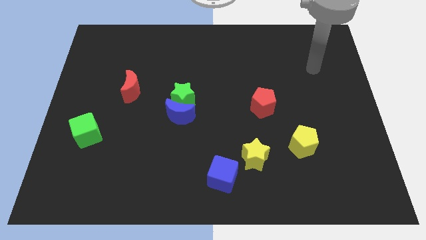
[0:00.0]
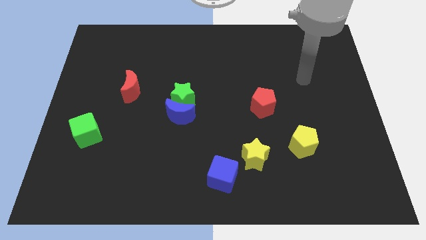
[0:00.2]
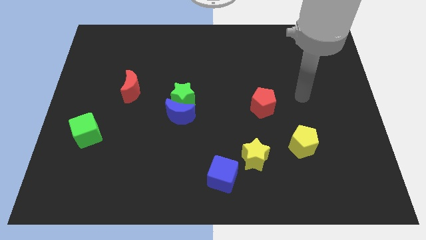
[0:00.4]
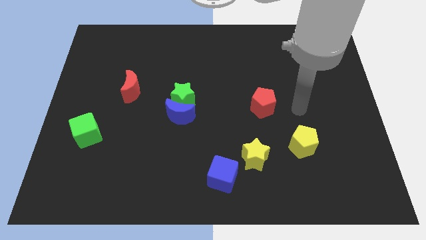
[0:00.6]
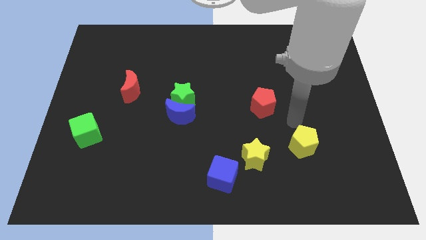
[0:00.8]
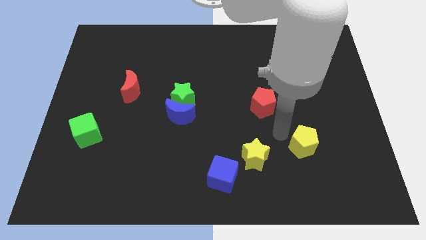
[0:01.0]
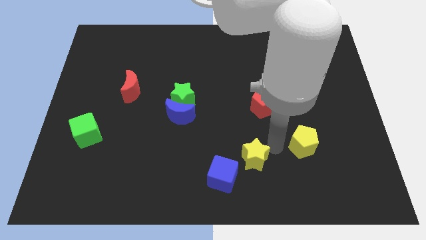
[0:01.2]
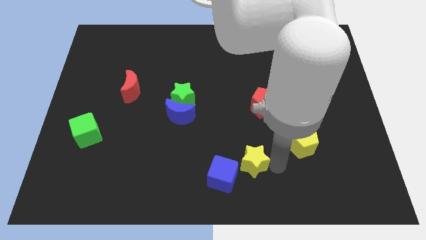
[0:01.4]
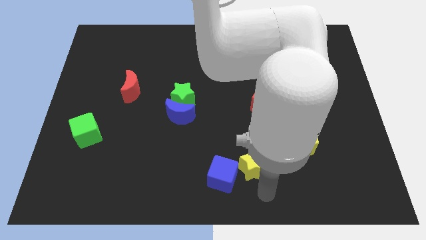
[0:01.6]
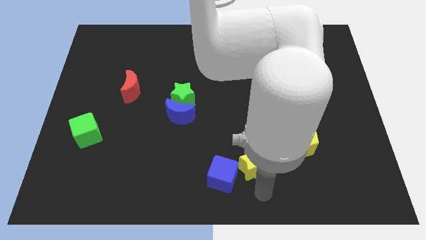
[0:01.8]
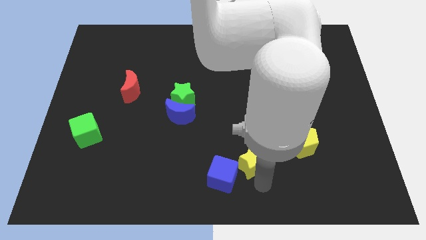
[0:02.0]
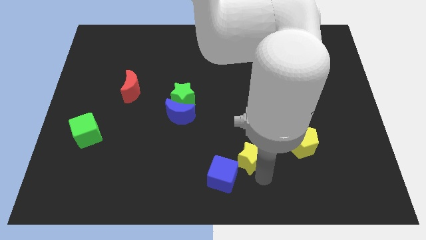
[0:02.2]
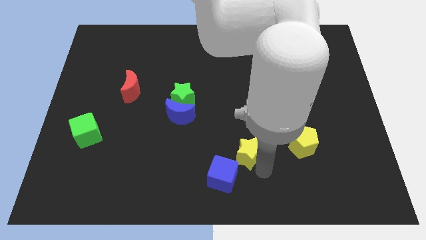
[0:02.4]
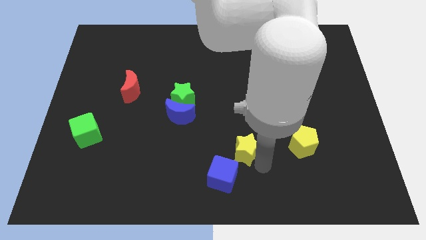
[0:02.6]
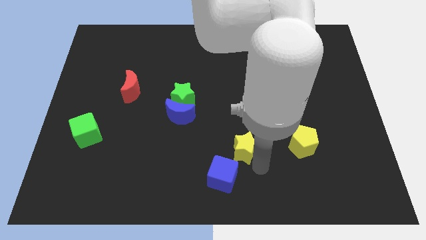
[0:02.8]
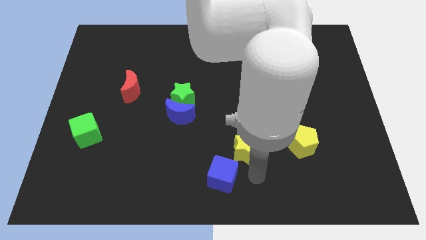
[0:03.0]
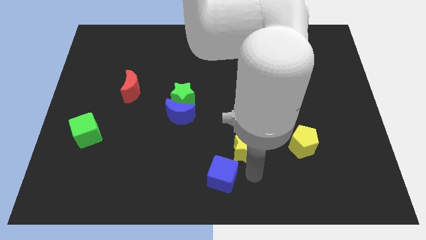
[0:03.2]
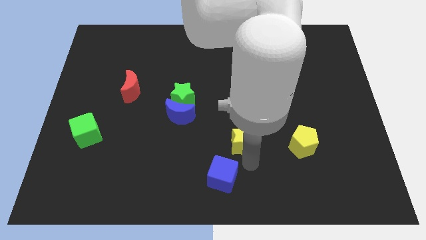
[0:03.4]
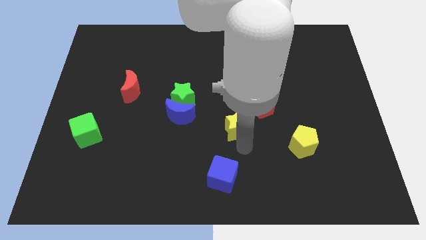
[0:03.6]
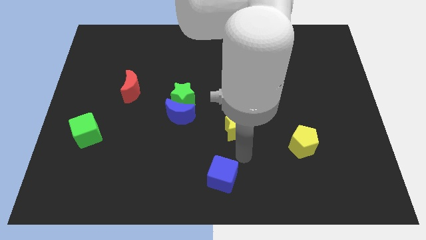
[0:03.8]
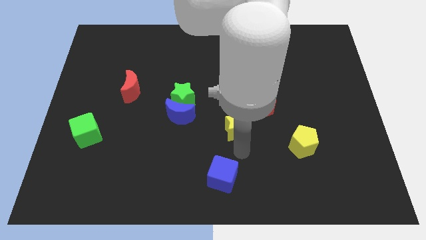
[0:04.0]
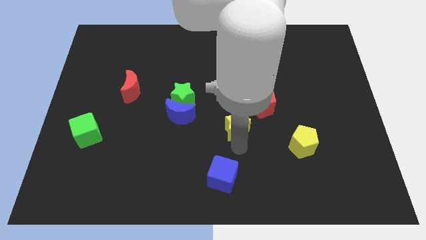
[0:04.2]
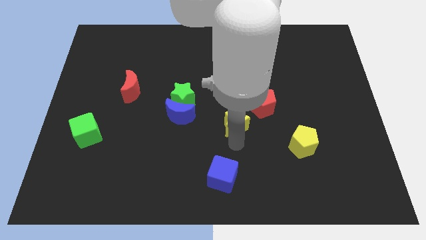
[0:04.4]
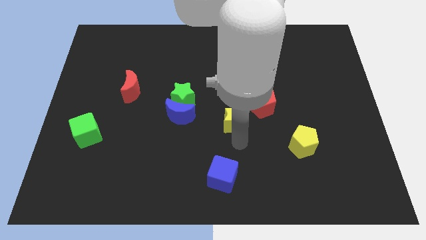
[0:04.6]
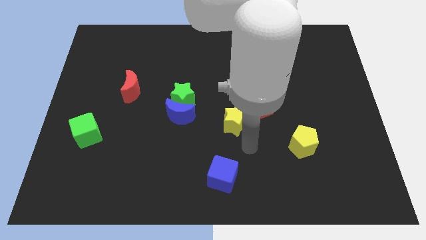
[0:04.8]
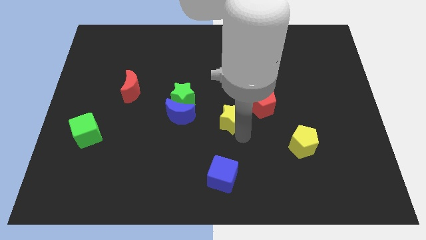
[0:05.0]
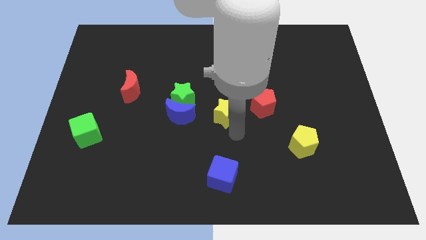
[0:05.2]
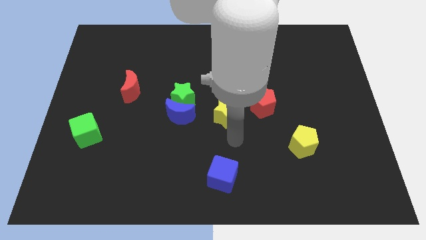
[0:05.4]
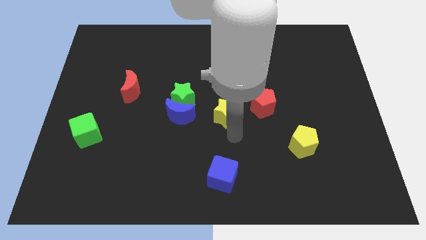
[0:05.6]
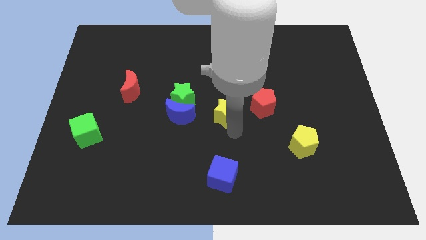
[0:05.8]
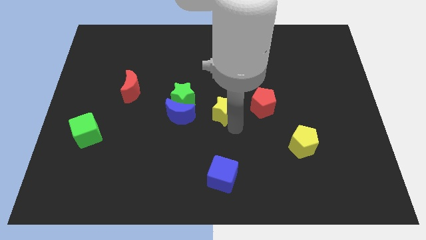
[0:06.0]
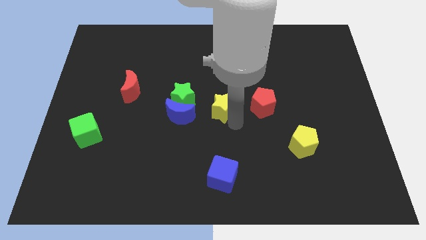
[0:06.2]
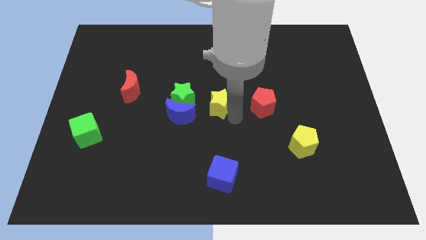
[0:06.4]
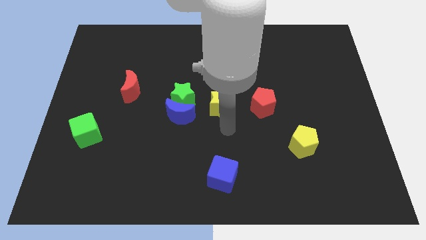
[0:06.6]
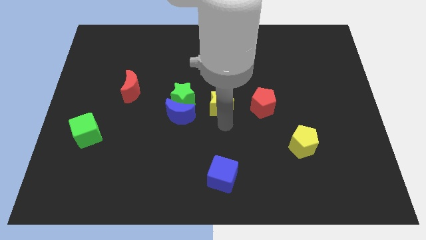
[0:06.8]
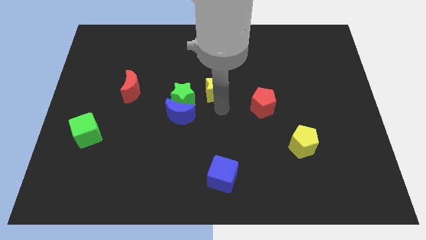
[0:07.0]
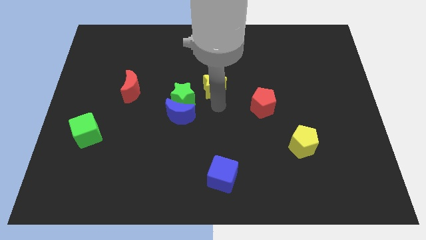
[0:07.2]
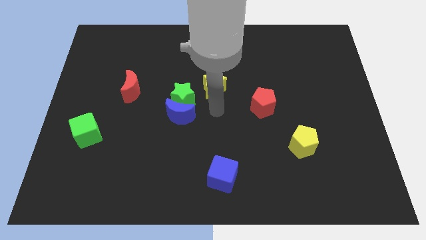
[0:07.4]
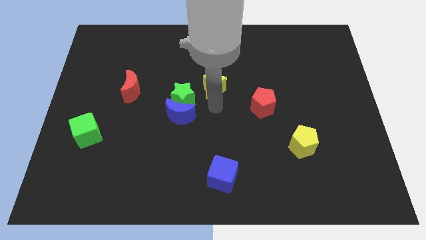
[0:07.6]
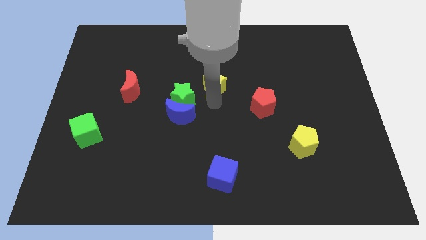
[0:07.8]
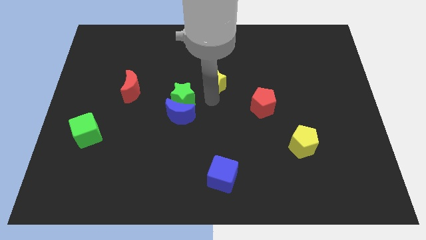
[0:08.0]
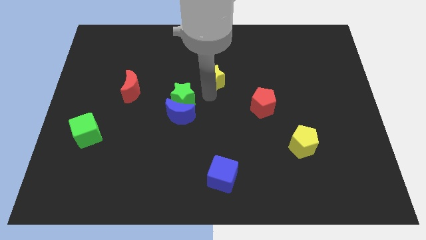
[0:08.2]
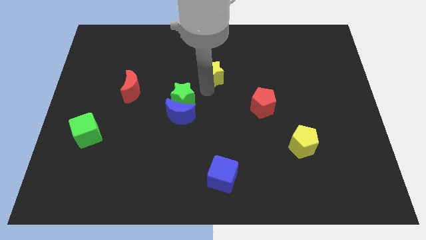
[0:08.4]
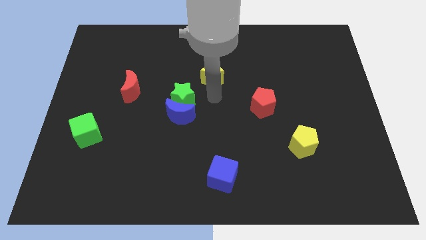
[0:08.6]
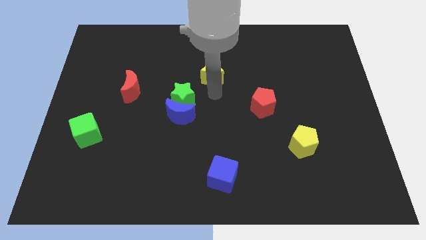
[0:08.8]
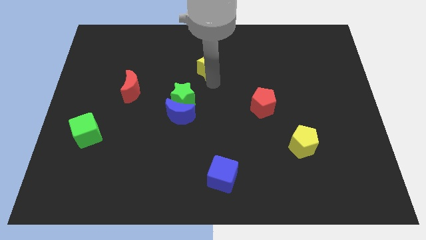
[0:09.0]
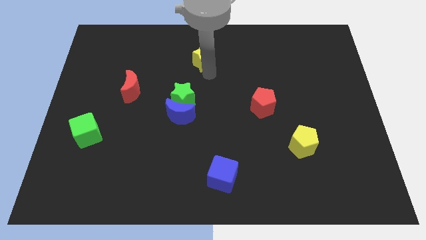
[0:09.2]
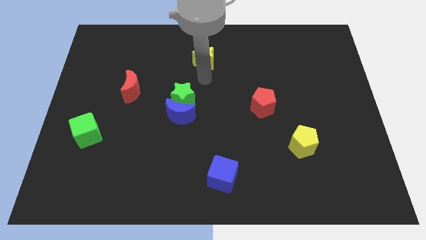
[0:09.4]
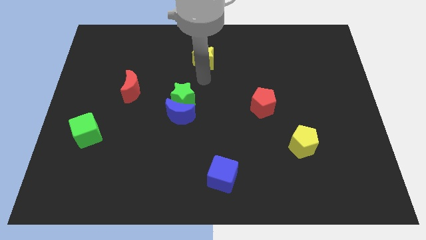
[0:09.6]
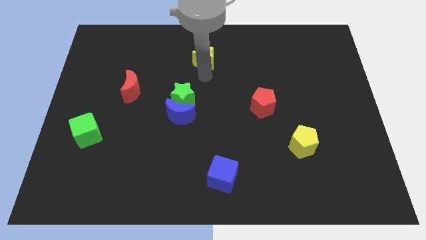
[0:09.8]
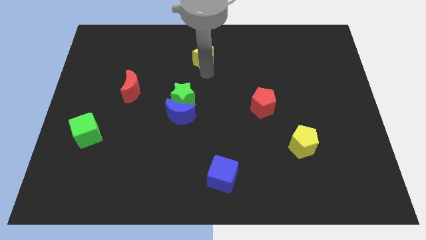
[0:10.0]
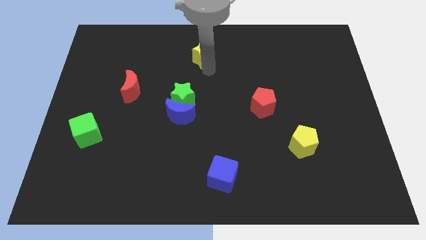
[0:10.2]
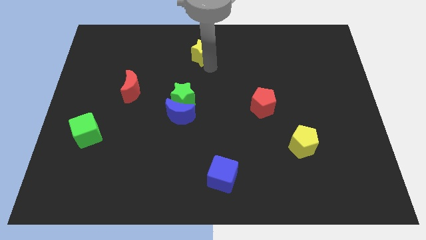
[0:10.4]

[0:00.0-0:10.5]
slide the yellow star to the top

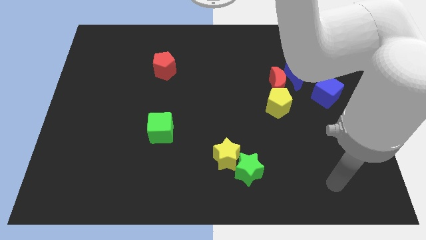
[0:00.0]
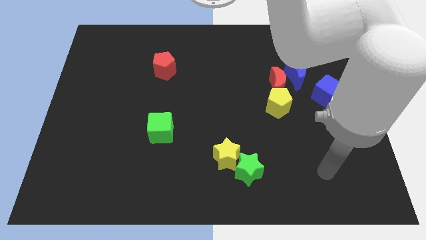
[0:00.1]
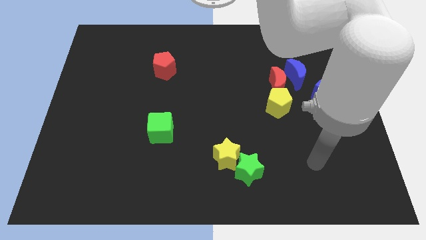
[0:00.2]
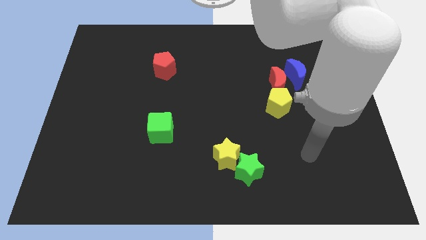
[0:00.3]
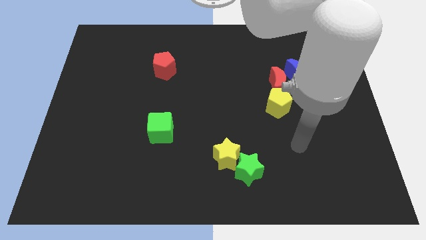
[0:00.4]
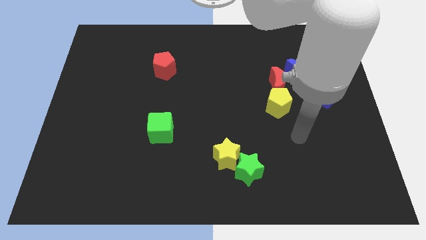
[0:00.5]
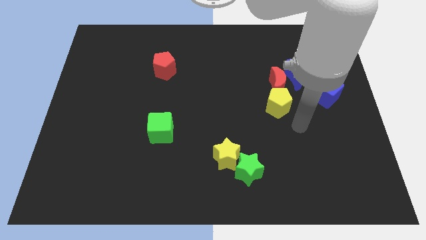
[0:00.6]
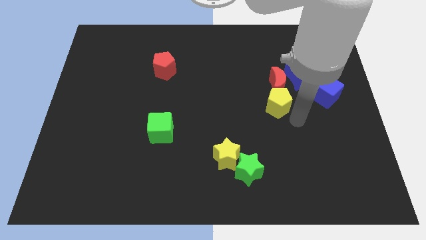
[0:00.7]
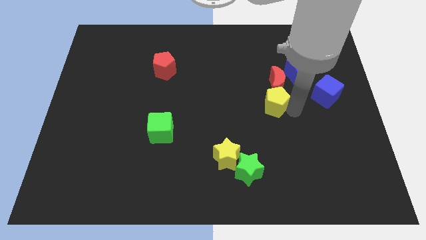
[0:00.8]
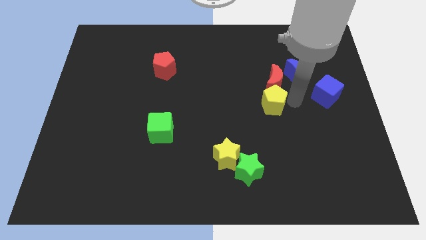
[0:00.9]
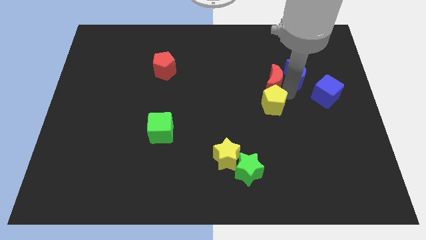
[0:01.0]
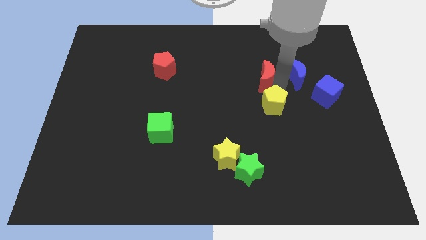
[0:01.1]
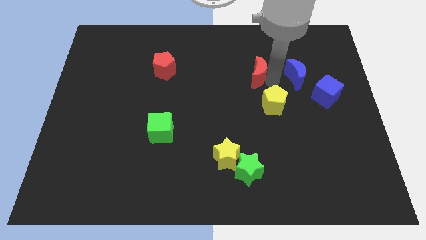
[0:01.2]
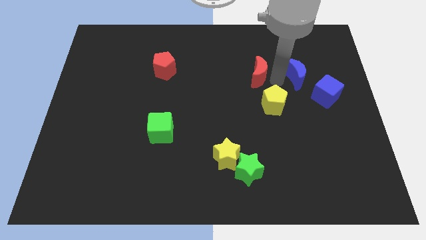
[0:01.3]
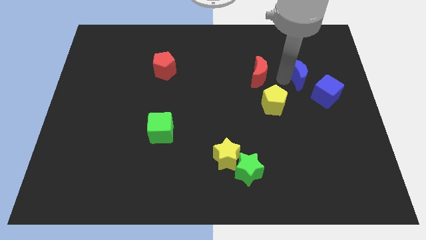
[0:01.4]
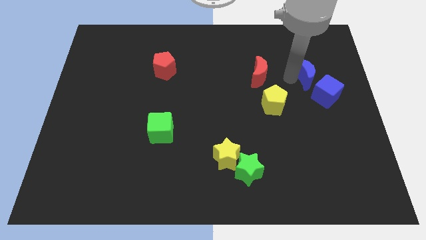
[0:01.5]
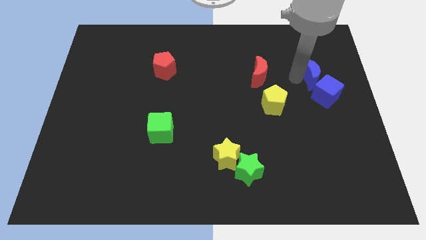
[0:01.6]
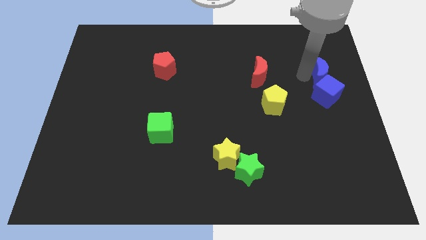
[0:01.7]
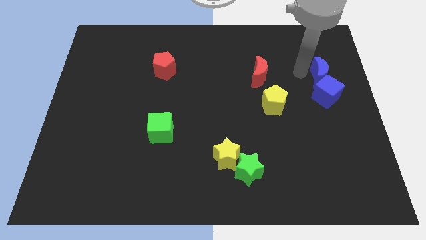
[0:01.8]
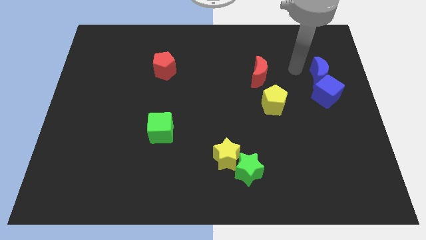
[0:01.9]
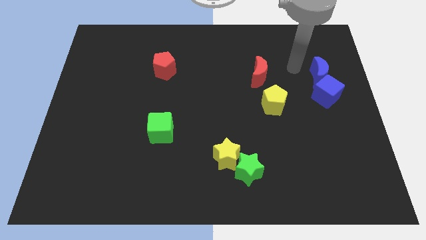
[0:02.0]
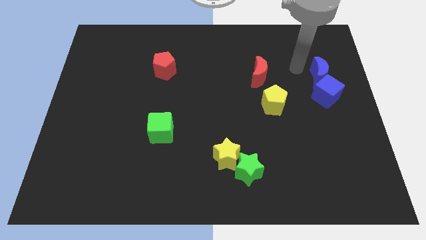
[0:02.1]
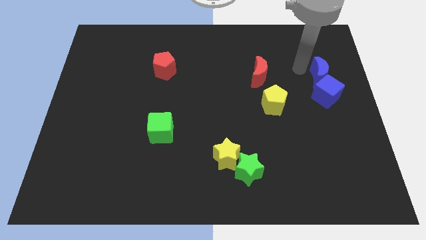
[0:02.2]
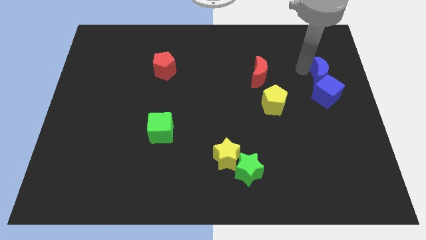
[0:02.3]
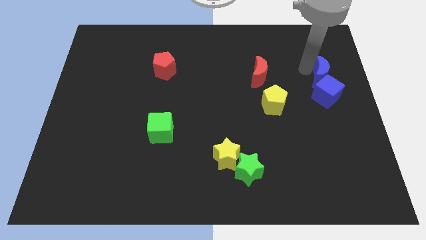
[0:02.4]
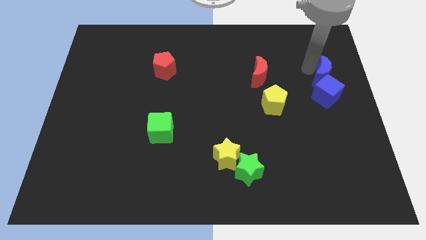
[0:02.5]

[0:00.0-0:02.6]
slide the blue moon to the center right

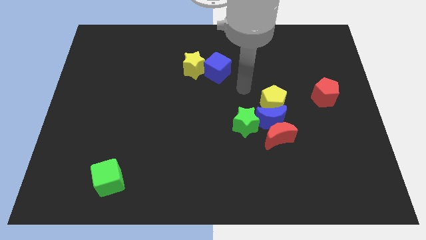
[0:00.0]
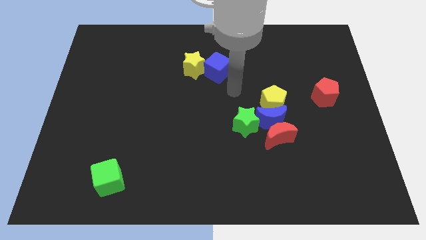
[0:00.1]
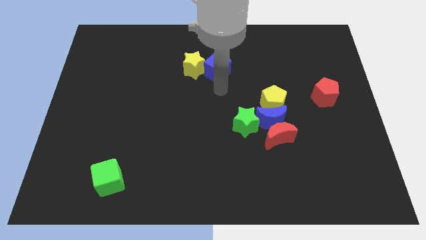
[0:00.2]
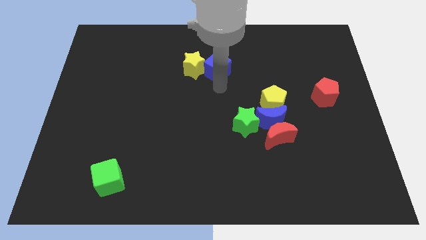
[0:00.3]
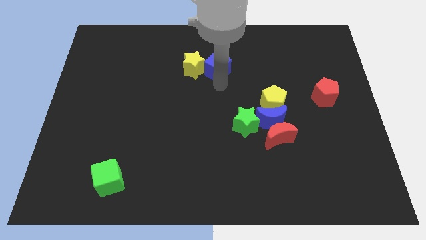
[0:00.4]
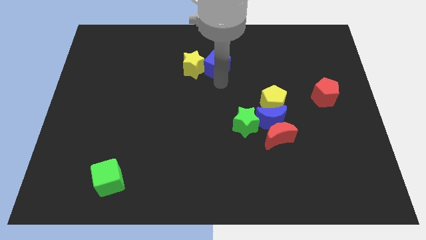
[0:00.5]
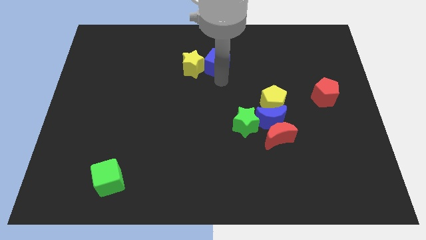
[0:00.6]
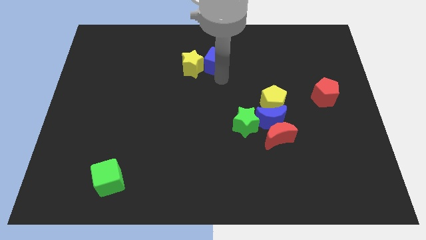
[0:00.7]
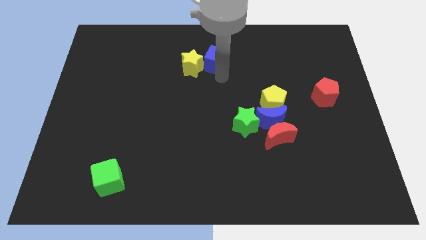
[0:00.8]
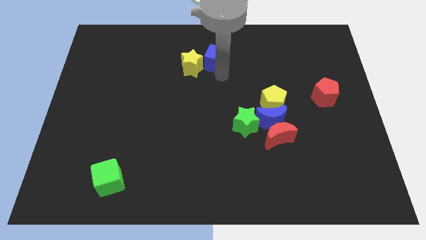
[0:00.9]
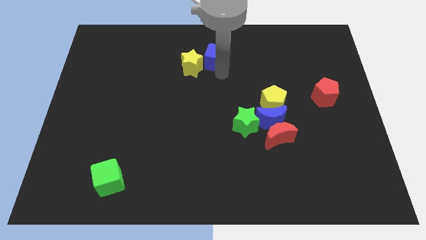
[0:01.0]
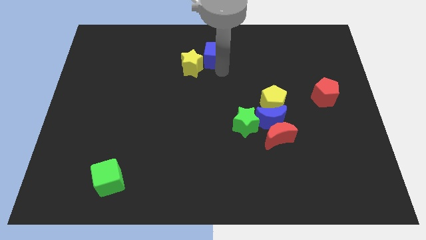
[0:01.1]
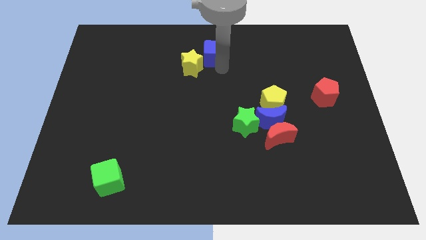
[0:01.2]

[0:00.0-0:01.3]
push the blue cube to the top
